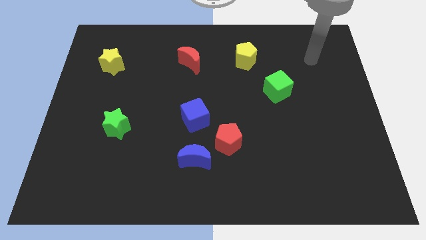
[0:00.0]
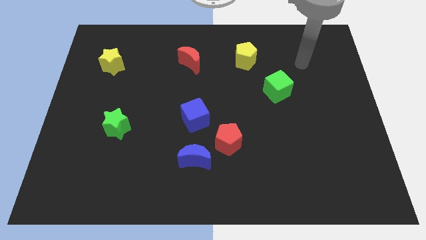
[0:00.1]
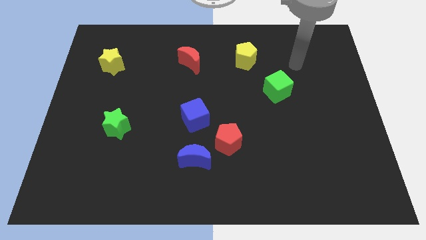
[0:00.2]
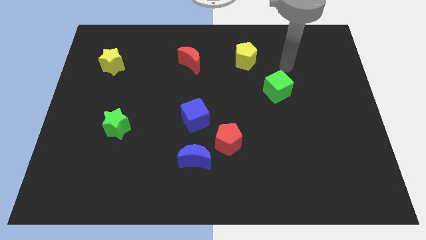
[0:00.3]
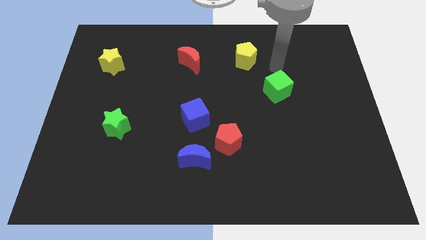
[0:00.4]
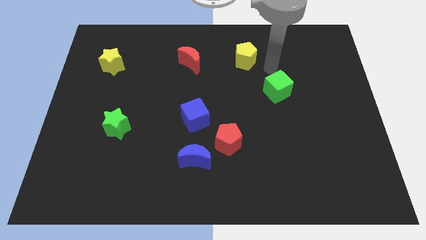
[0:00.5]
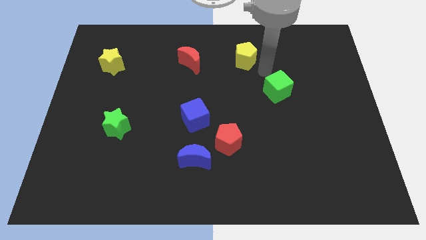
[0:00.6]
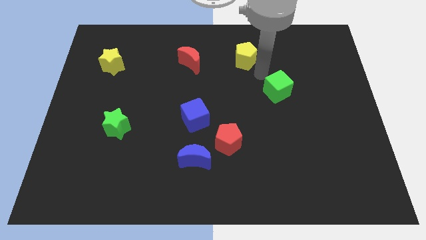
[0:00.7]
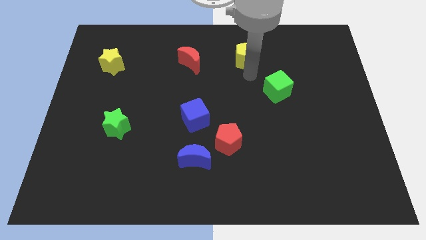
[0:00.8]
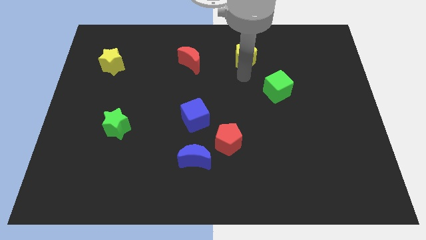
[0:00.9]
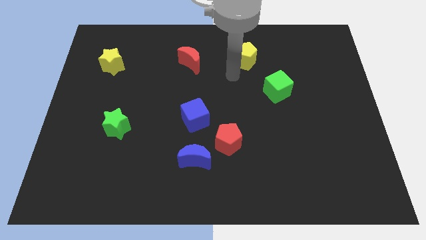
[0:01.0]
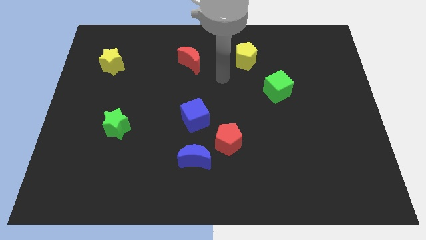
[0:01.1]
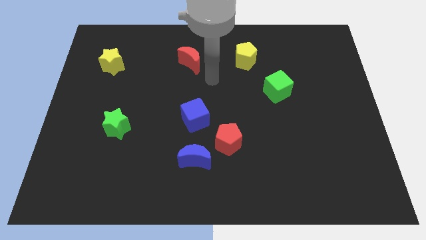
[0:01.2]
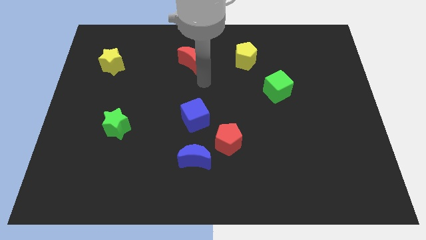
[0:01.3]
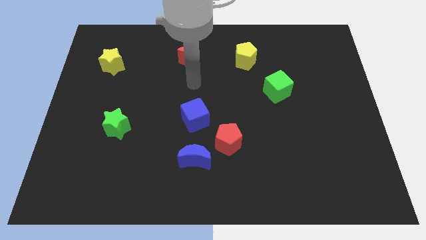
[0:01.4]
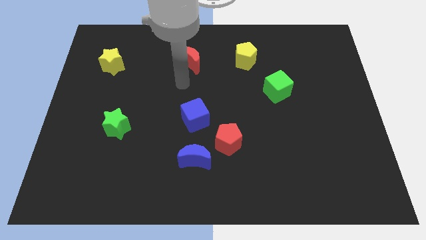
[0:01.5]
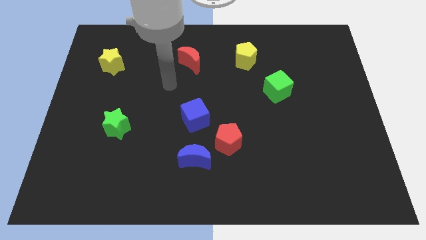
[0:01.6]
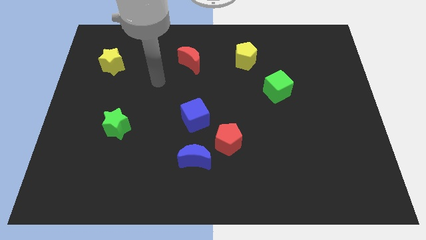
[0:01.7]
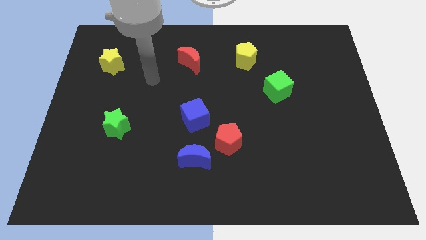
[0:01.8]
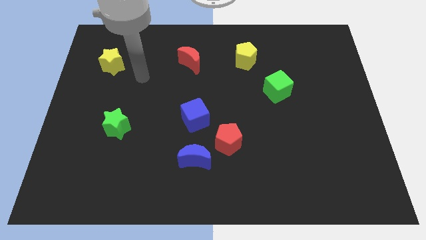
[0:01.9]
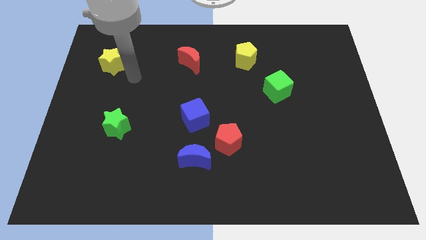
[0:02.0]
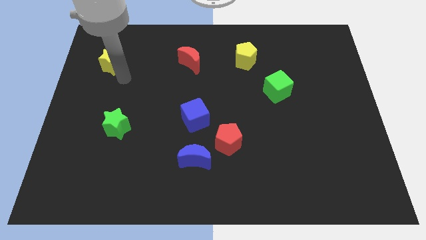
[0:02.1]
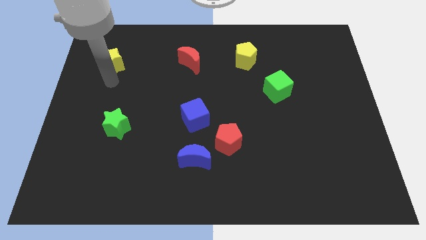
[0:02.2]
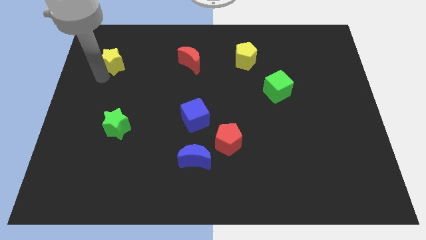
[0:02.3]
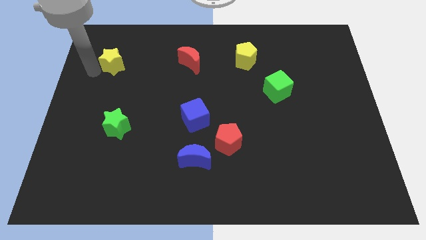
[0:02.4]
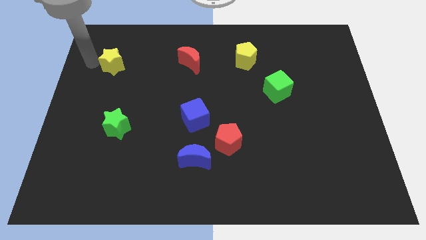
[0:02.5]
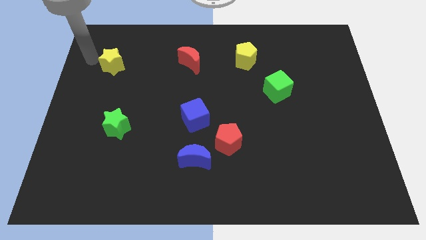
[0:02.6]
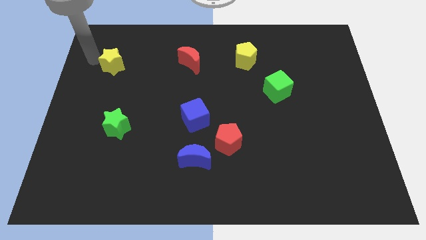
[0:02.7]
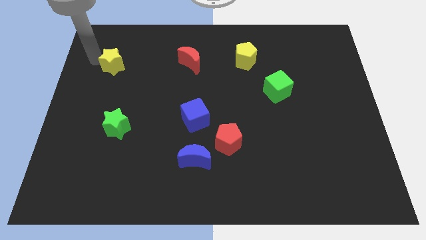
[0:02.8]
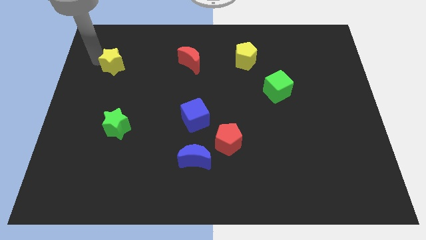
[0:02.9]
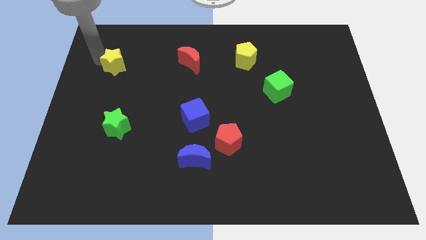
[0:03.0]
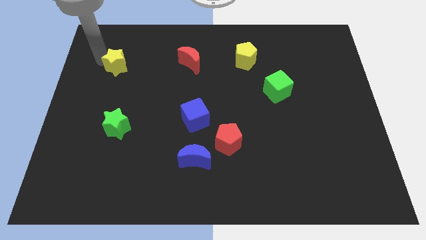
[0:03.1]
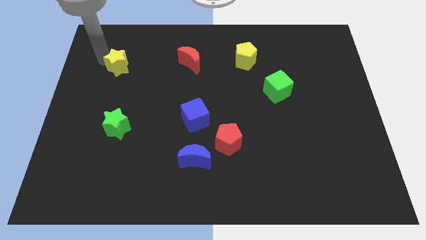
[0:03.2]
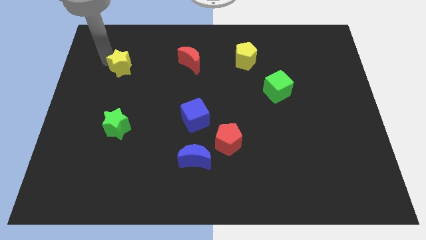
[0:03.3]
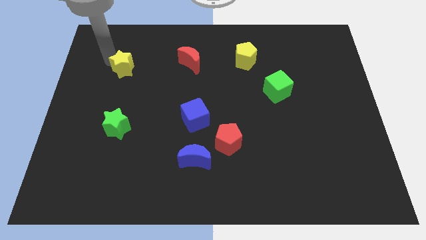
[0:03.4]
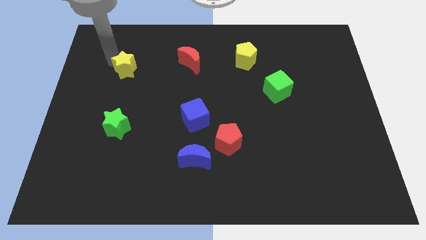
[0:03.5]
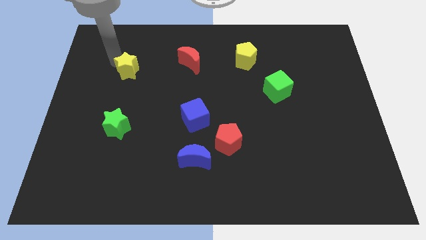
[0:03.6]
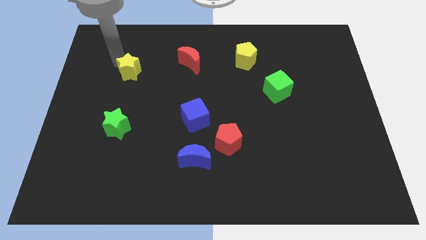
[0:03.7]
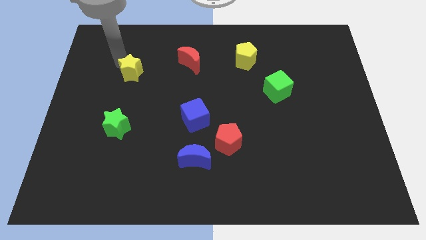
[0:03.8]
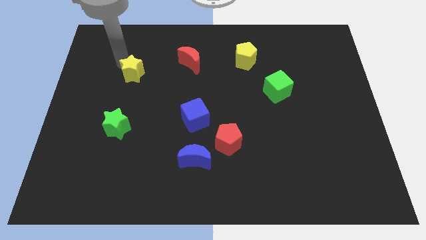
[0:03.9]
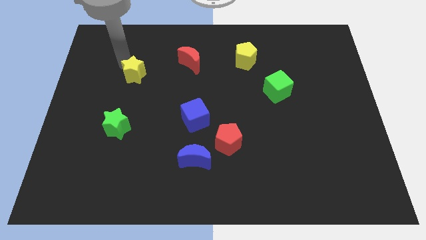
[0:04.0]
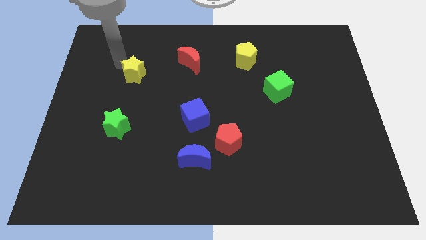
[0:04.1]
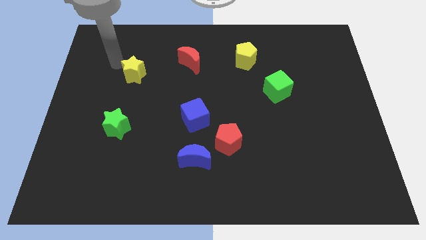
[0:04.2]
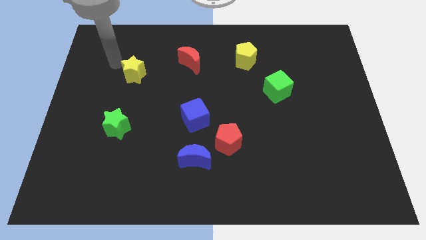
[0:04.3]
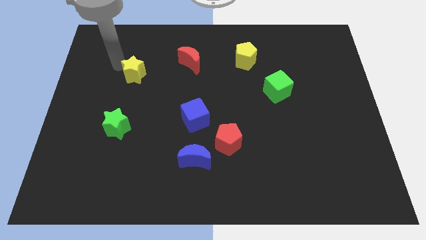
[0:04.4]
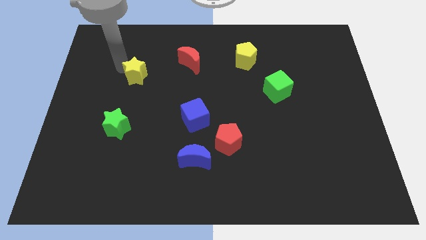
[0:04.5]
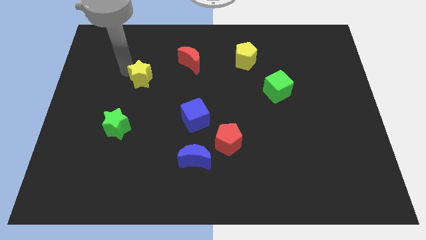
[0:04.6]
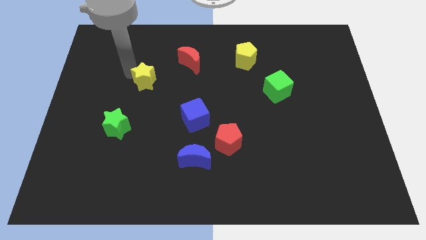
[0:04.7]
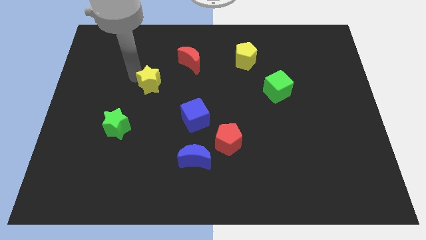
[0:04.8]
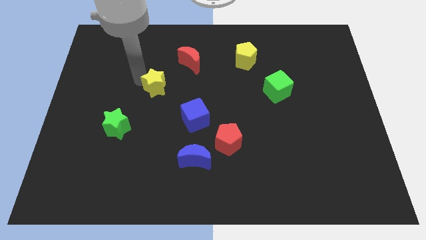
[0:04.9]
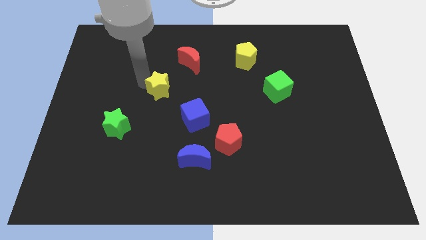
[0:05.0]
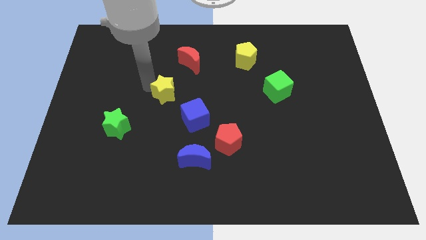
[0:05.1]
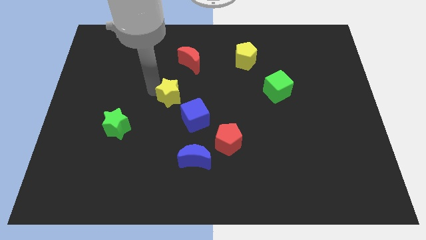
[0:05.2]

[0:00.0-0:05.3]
put the yellow star to the bottom of the red moon

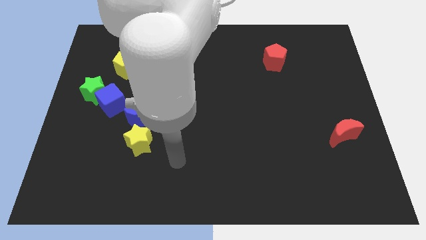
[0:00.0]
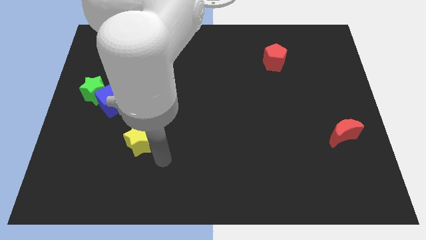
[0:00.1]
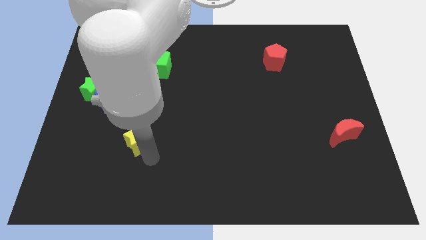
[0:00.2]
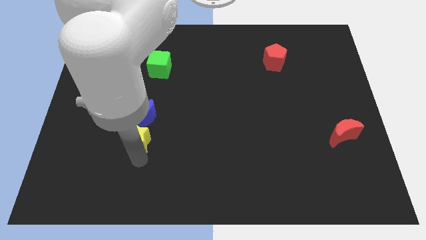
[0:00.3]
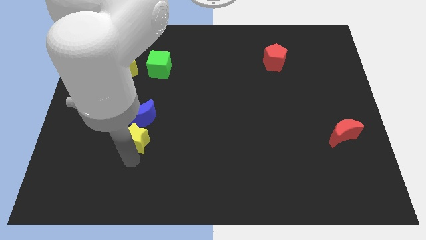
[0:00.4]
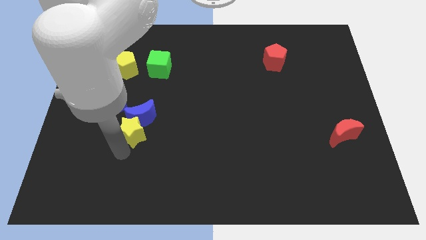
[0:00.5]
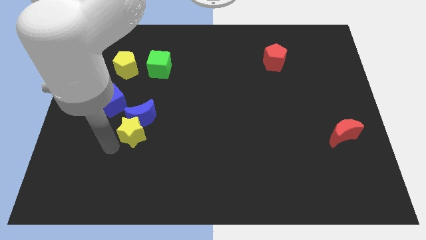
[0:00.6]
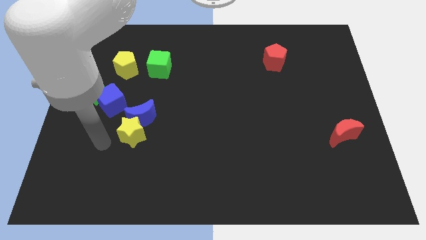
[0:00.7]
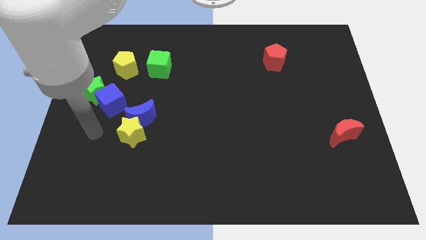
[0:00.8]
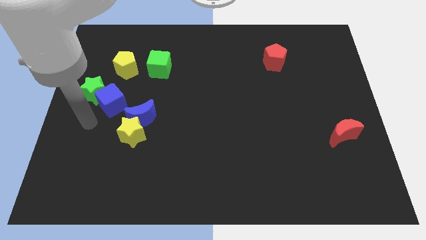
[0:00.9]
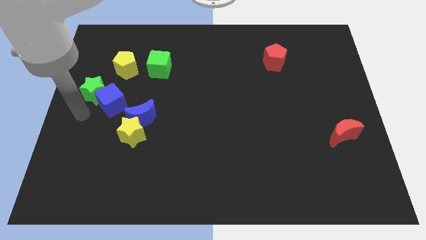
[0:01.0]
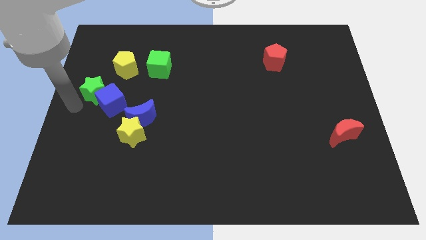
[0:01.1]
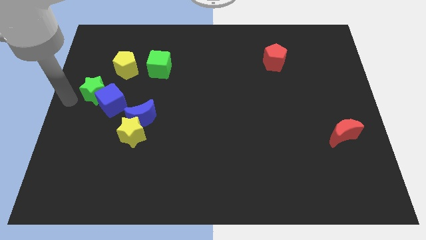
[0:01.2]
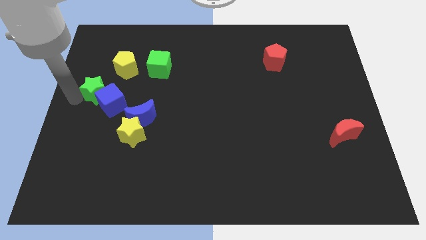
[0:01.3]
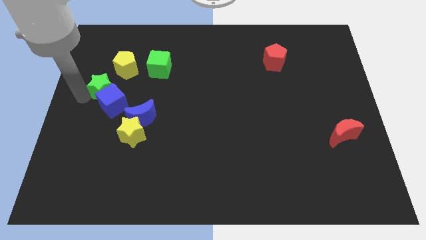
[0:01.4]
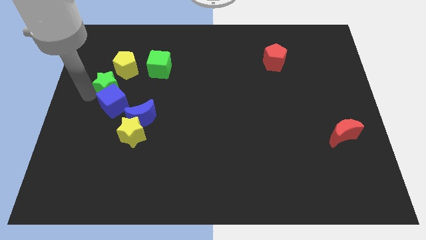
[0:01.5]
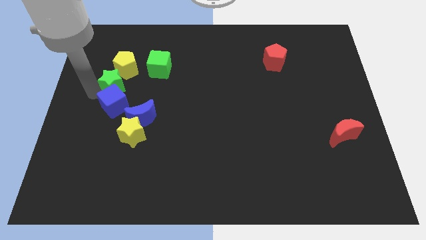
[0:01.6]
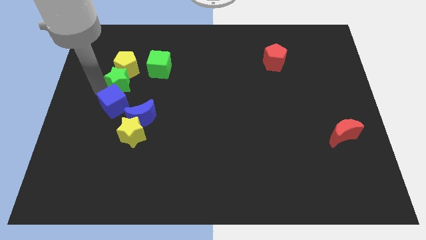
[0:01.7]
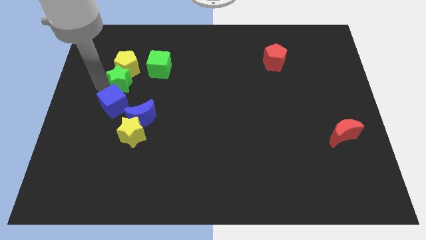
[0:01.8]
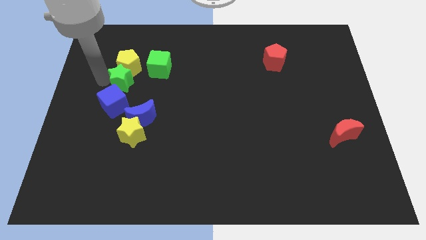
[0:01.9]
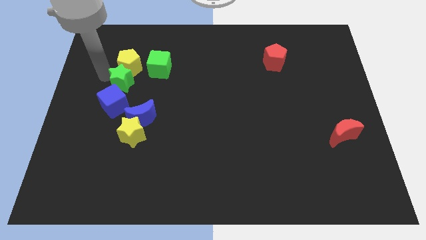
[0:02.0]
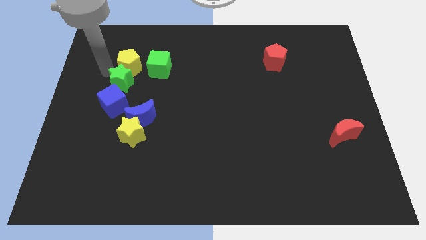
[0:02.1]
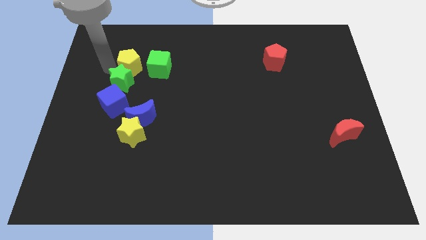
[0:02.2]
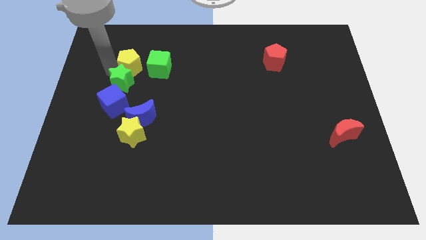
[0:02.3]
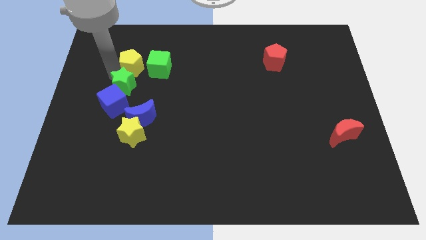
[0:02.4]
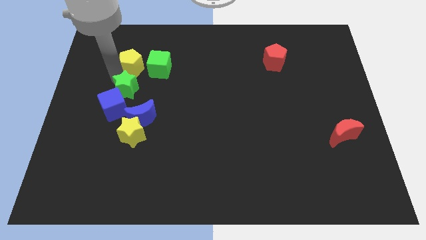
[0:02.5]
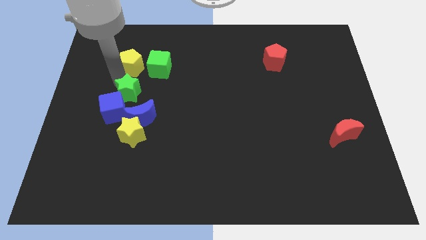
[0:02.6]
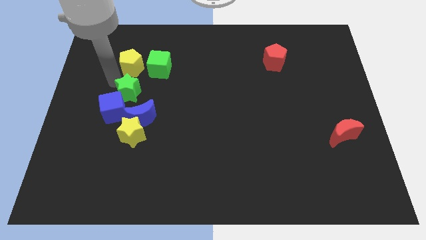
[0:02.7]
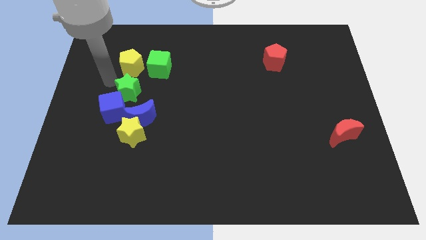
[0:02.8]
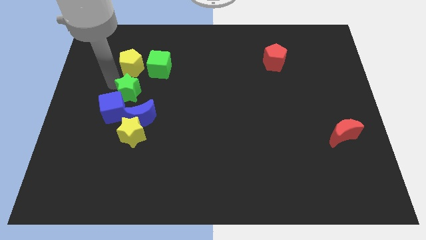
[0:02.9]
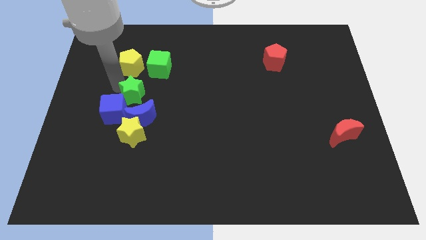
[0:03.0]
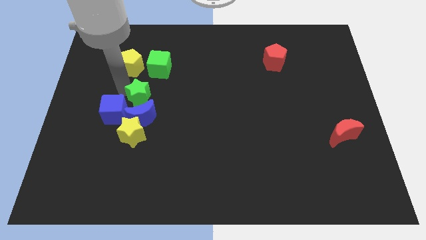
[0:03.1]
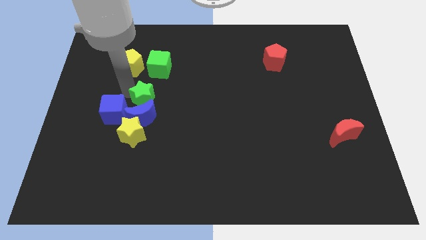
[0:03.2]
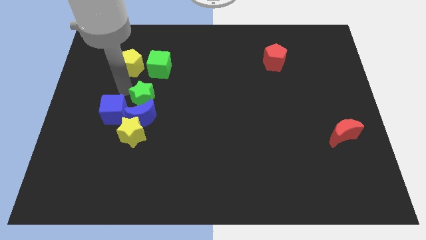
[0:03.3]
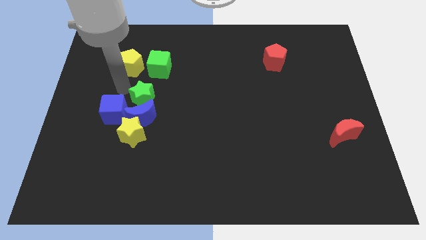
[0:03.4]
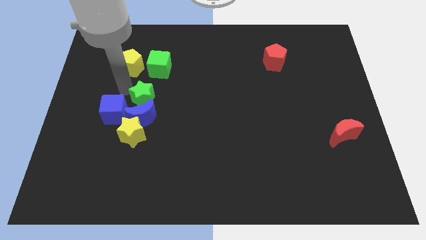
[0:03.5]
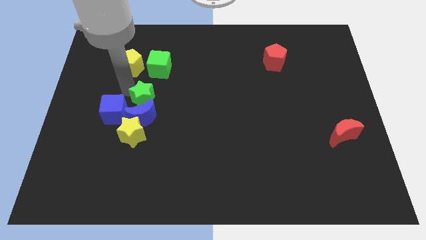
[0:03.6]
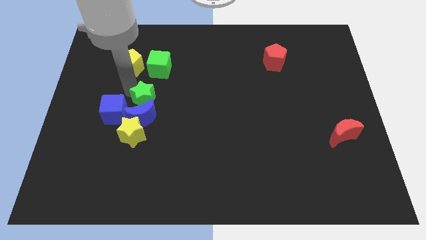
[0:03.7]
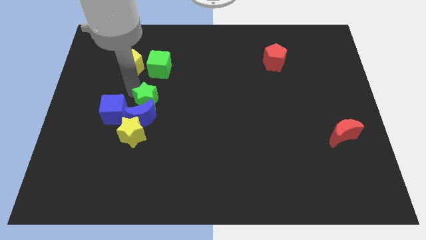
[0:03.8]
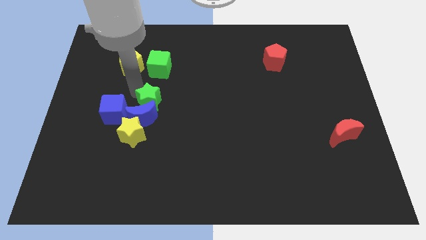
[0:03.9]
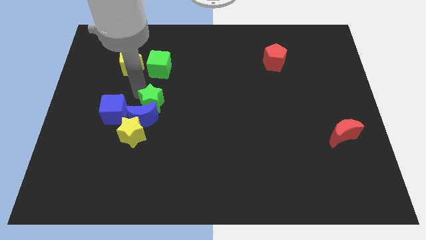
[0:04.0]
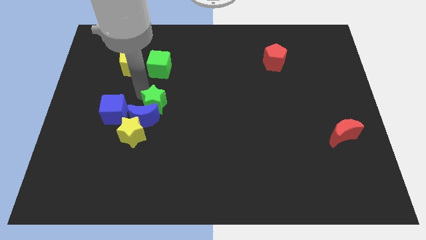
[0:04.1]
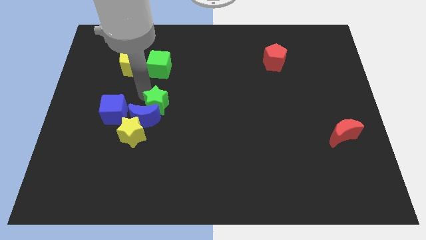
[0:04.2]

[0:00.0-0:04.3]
put the green star just right of the blue moon
